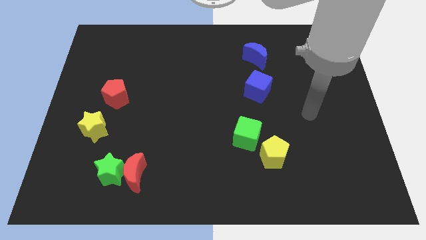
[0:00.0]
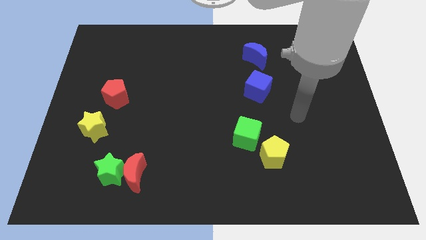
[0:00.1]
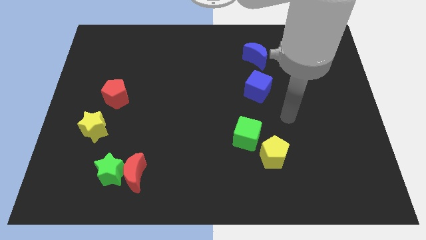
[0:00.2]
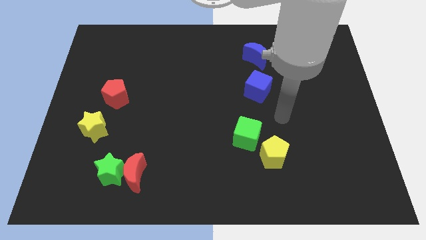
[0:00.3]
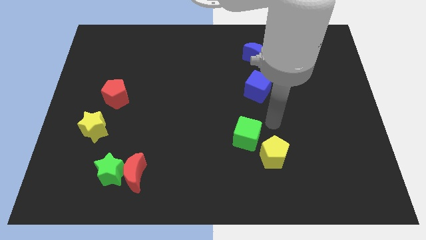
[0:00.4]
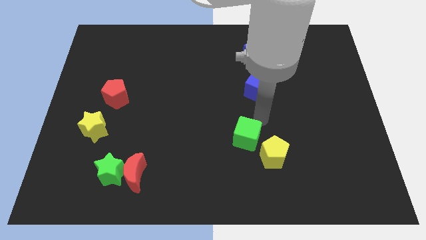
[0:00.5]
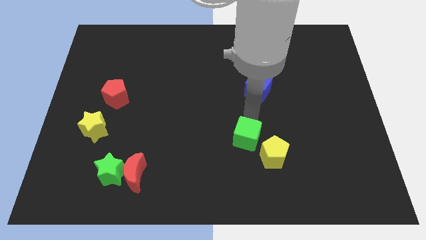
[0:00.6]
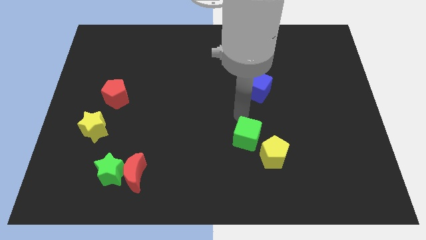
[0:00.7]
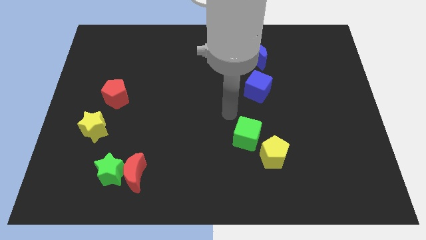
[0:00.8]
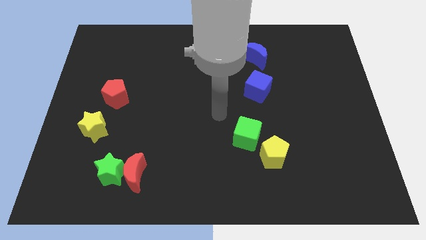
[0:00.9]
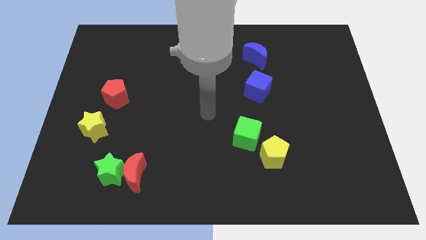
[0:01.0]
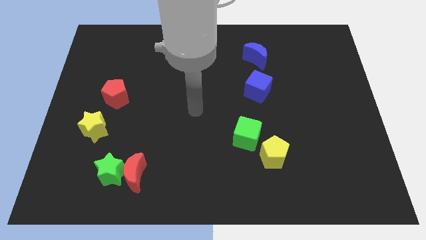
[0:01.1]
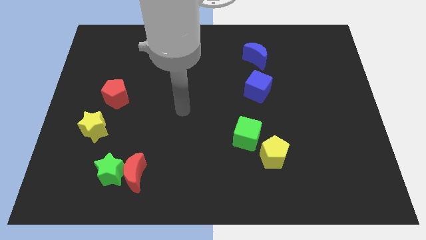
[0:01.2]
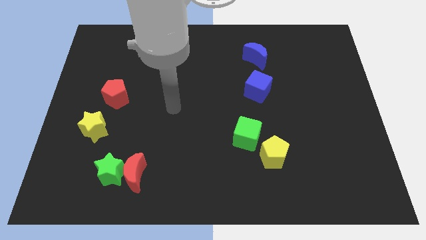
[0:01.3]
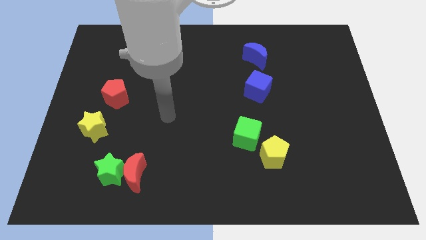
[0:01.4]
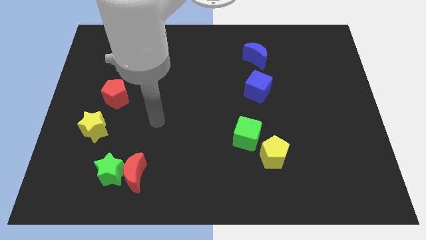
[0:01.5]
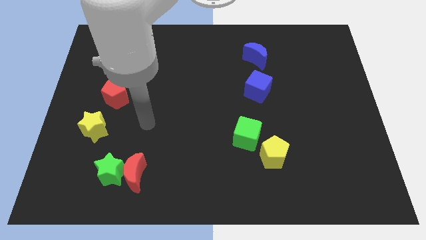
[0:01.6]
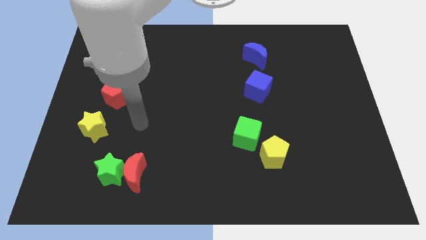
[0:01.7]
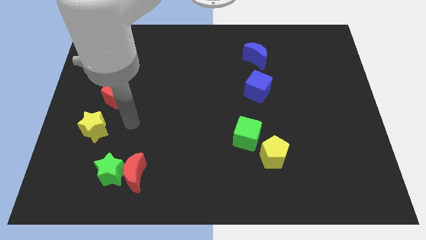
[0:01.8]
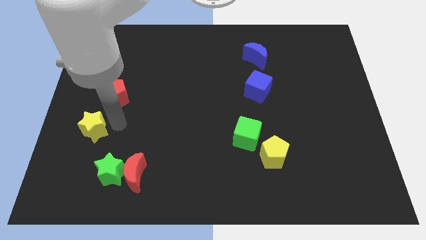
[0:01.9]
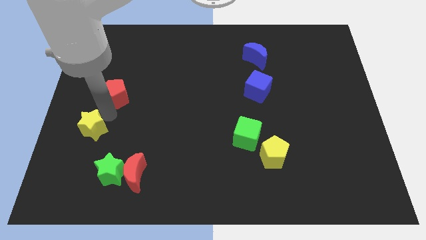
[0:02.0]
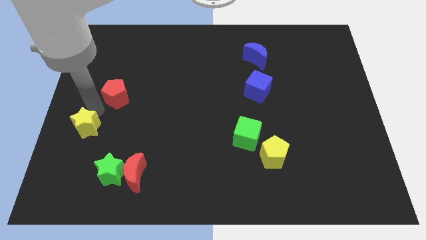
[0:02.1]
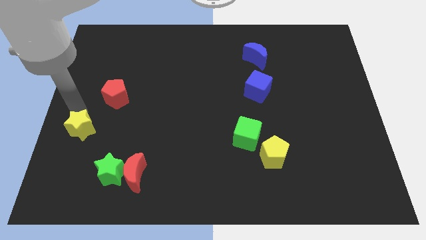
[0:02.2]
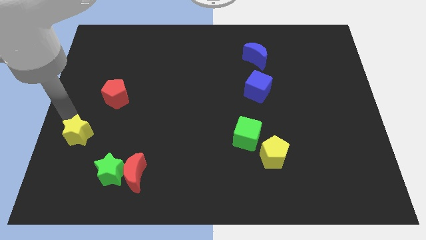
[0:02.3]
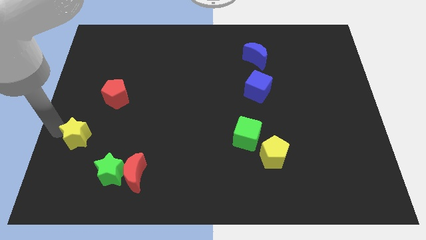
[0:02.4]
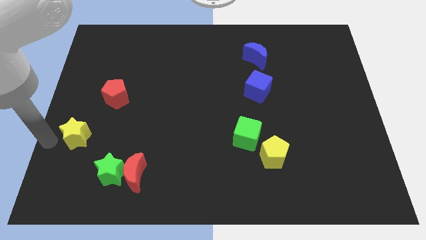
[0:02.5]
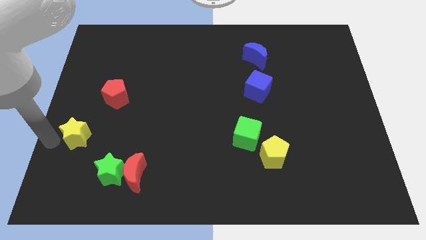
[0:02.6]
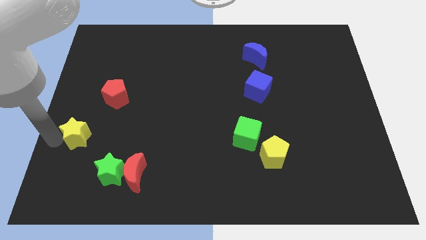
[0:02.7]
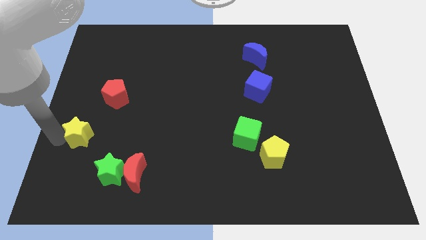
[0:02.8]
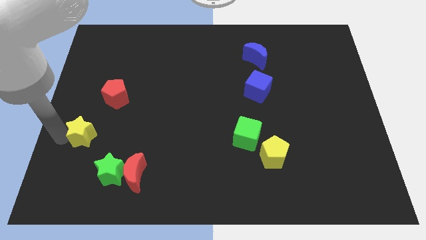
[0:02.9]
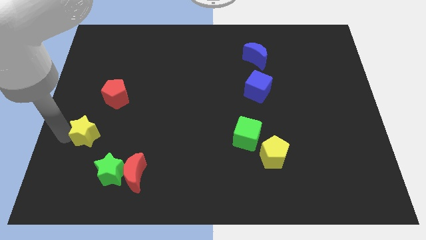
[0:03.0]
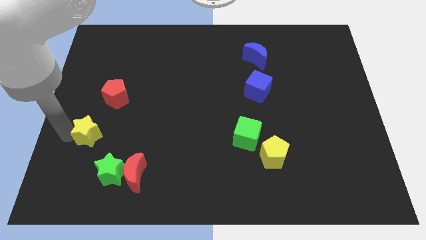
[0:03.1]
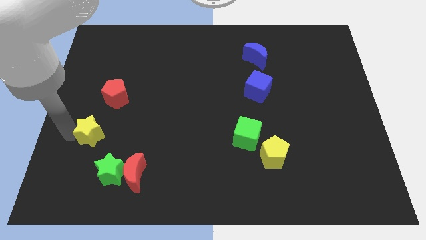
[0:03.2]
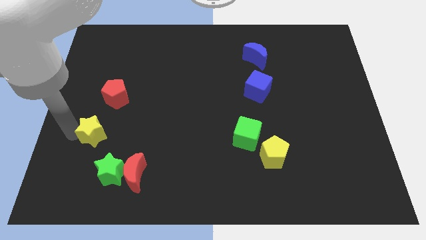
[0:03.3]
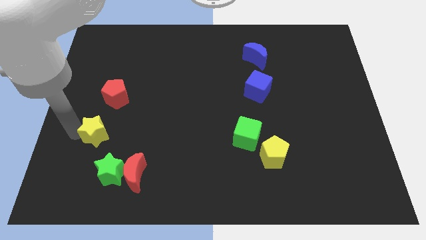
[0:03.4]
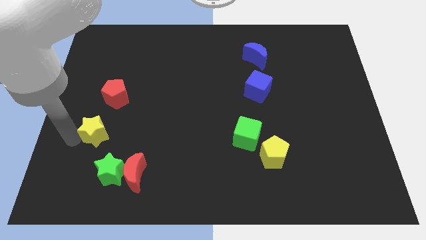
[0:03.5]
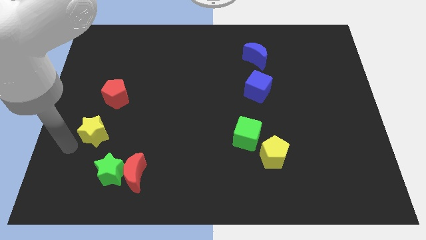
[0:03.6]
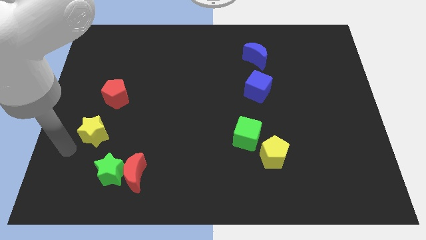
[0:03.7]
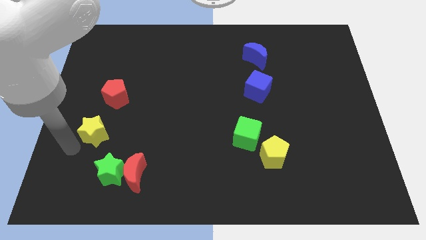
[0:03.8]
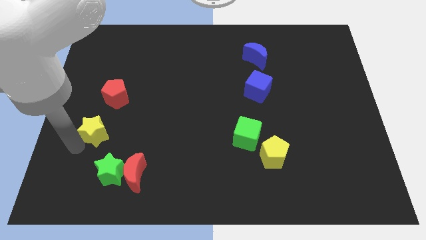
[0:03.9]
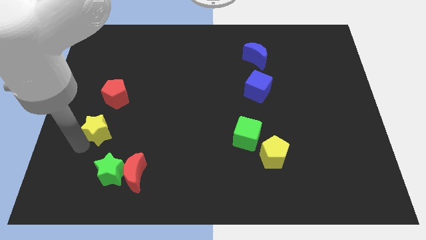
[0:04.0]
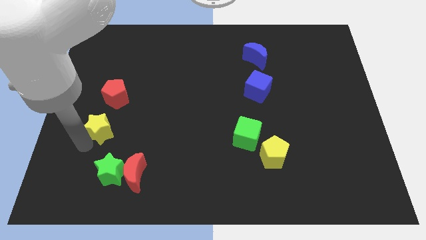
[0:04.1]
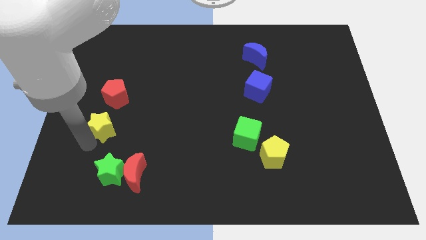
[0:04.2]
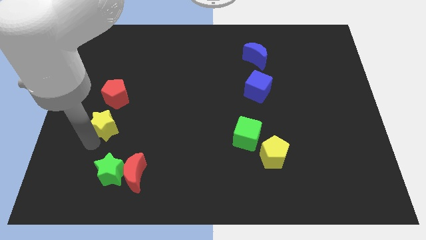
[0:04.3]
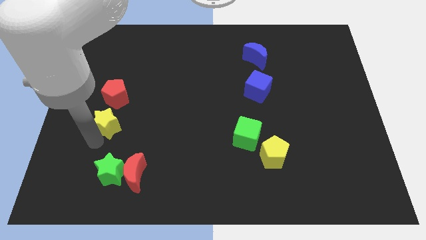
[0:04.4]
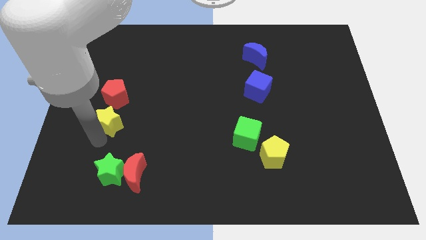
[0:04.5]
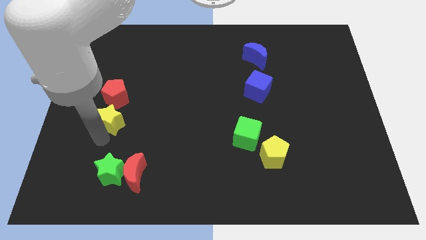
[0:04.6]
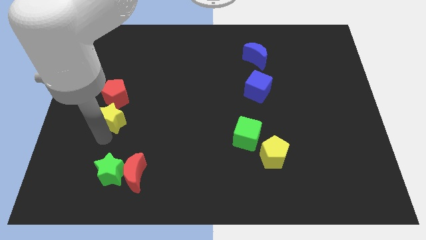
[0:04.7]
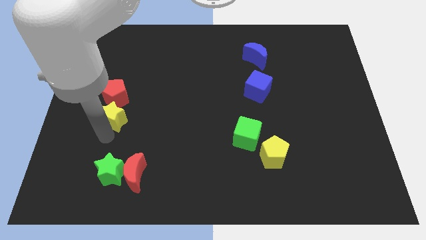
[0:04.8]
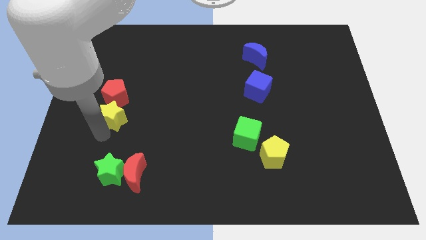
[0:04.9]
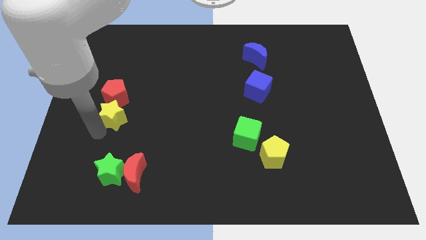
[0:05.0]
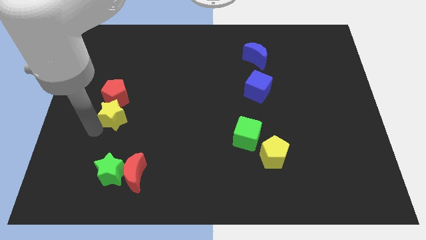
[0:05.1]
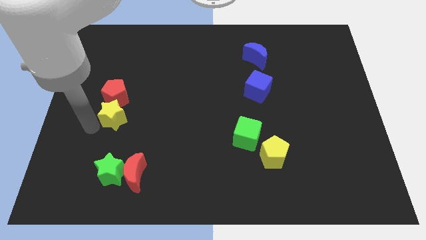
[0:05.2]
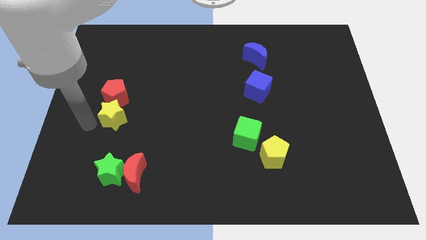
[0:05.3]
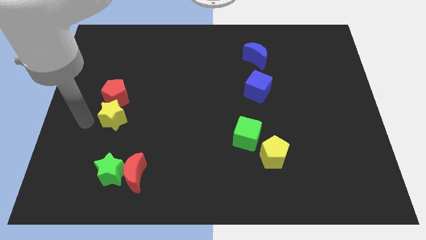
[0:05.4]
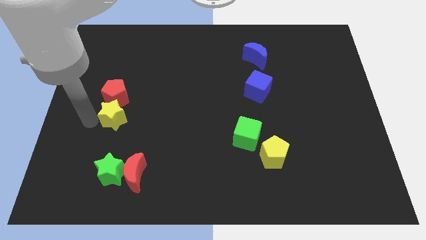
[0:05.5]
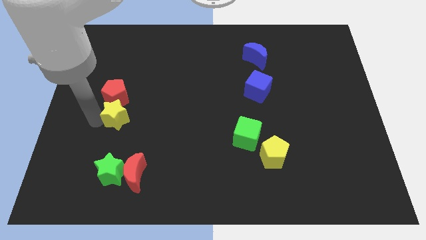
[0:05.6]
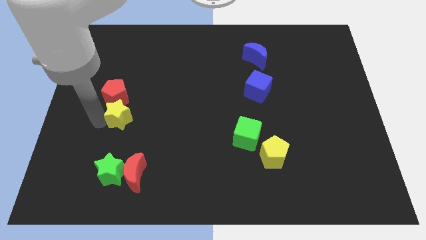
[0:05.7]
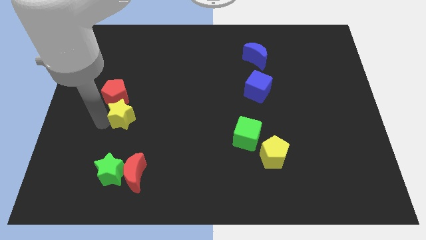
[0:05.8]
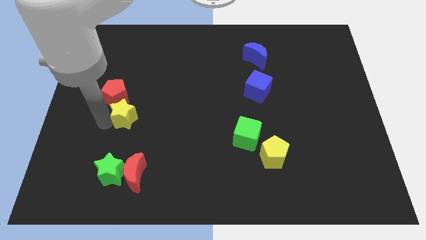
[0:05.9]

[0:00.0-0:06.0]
push the yellow star upwards and then right slightly

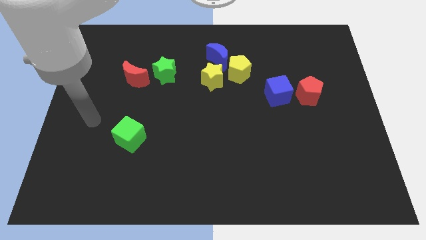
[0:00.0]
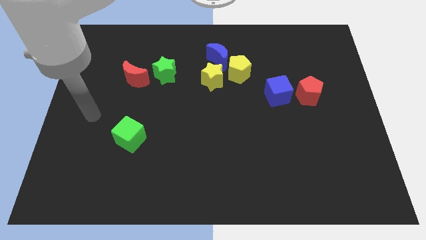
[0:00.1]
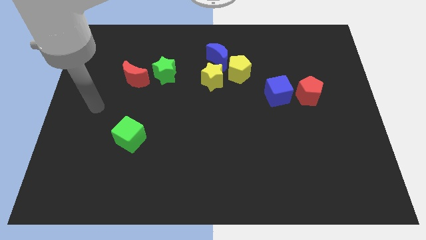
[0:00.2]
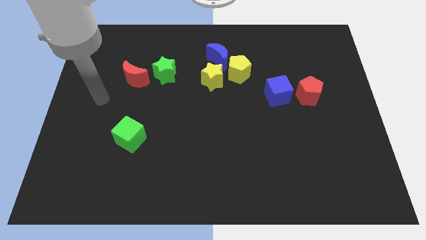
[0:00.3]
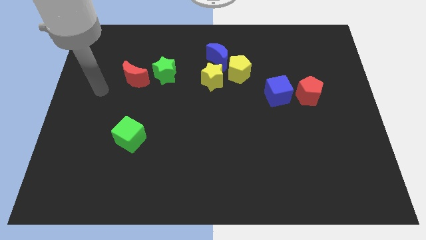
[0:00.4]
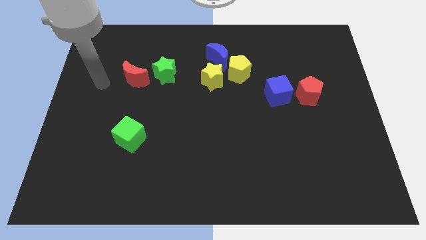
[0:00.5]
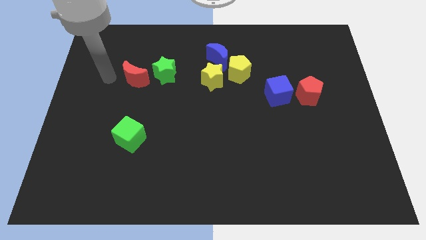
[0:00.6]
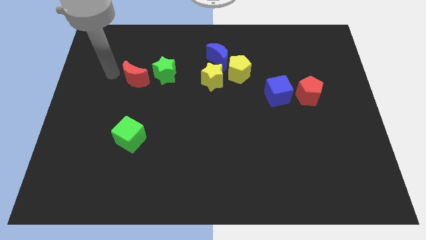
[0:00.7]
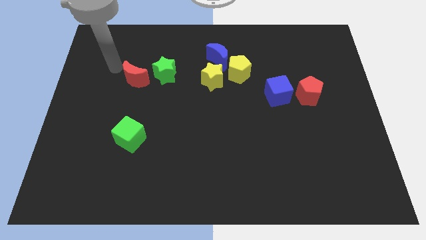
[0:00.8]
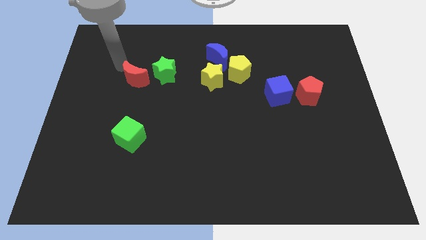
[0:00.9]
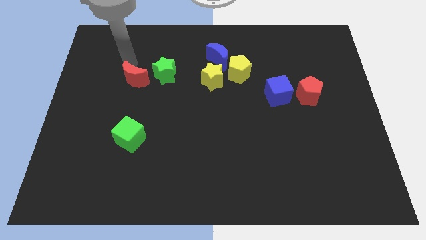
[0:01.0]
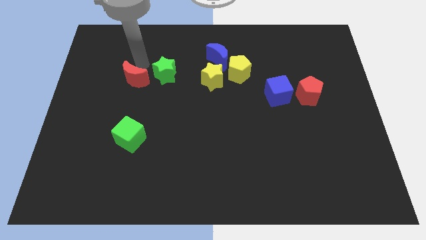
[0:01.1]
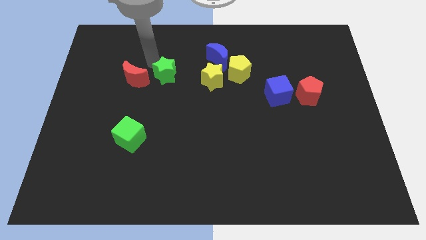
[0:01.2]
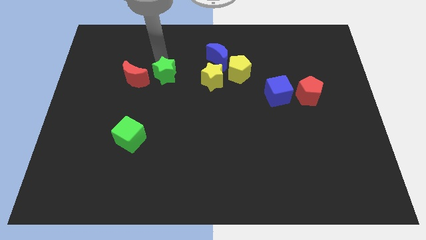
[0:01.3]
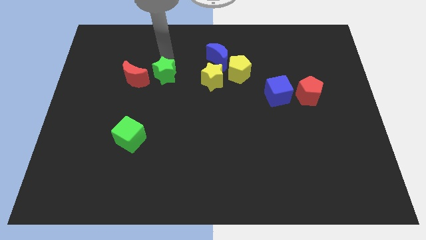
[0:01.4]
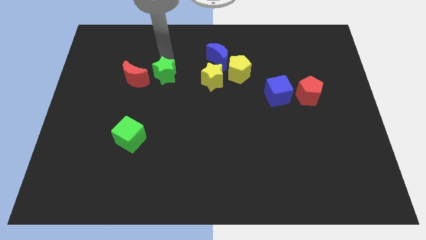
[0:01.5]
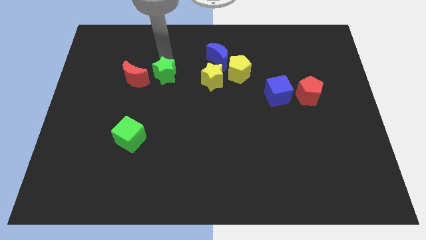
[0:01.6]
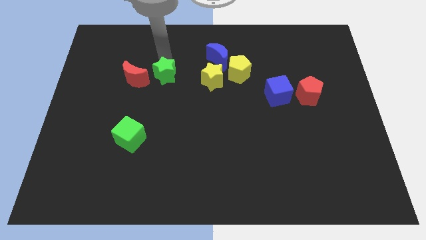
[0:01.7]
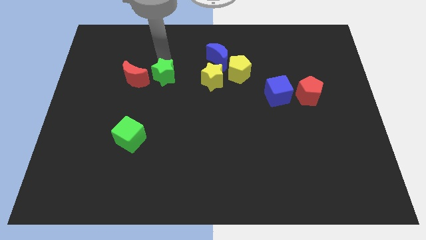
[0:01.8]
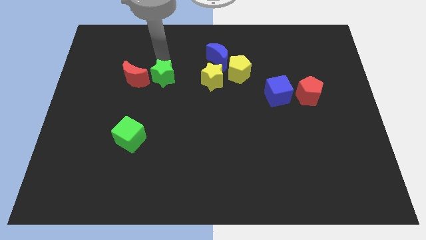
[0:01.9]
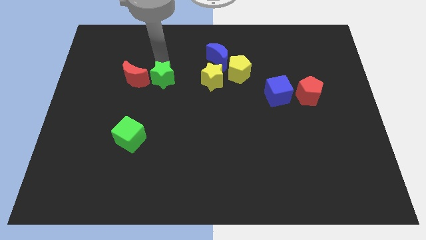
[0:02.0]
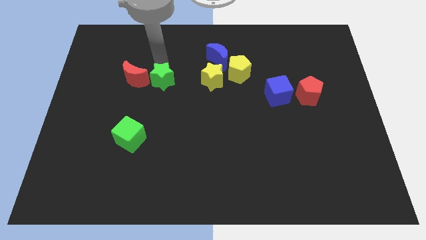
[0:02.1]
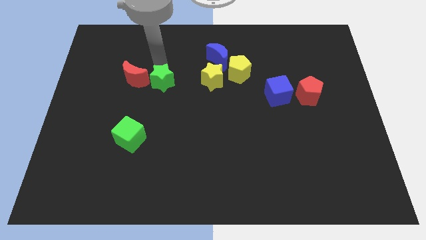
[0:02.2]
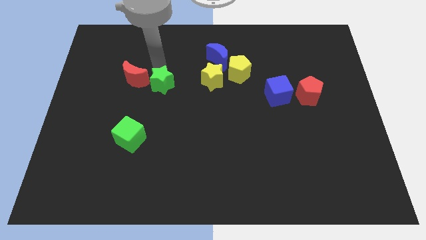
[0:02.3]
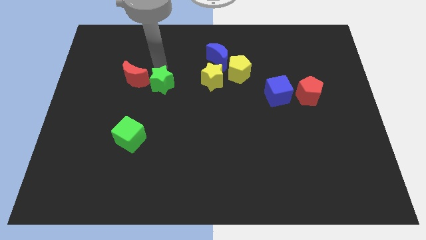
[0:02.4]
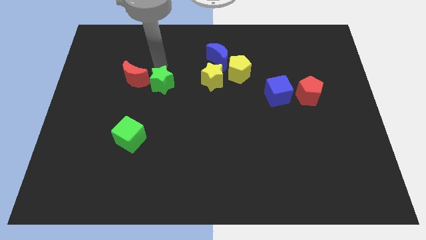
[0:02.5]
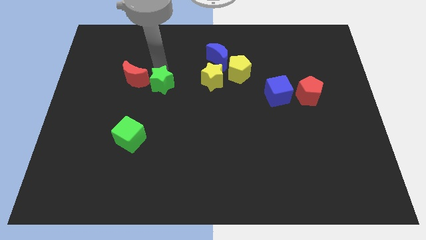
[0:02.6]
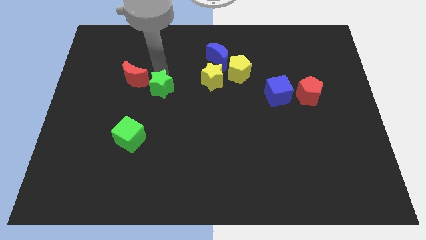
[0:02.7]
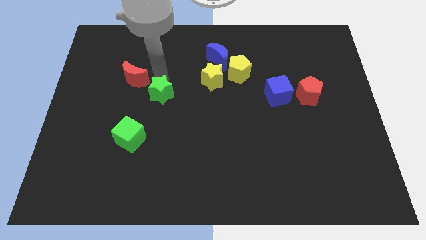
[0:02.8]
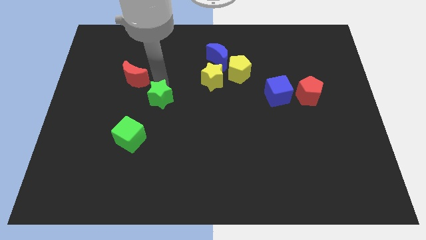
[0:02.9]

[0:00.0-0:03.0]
slightly slide the green star downwards
